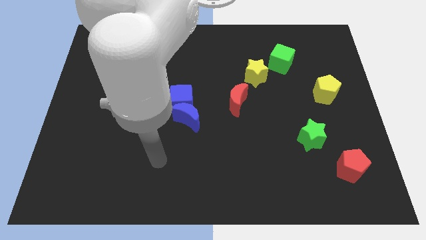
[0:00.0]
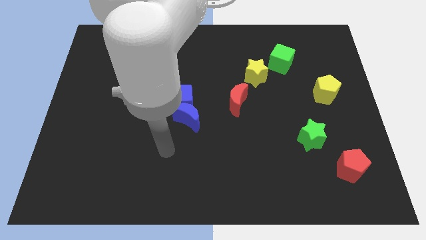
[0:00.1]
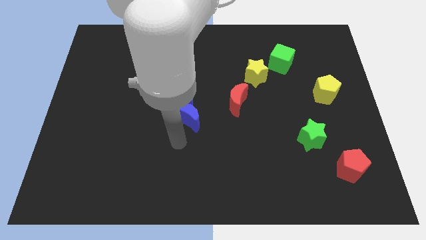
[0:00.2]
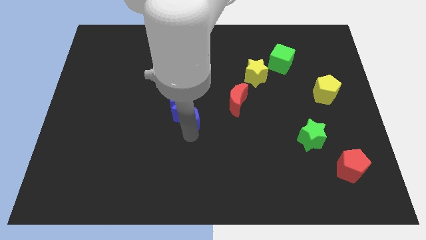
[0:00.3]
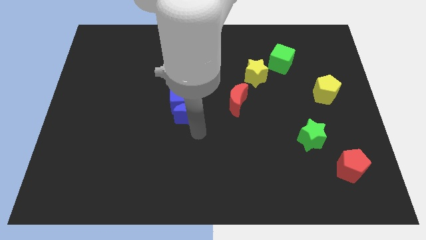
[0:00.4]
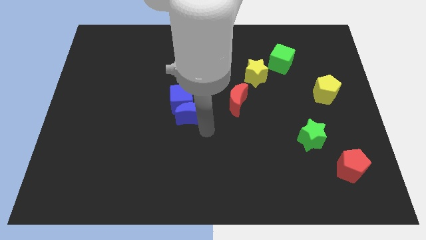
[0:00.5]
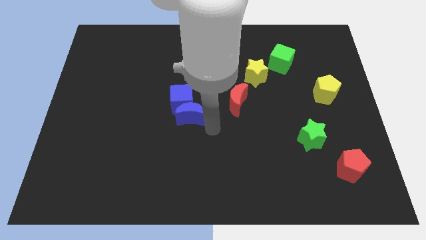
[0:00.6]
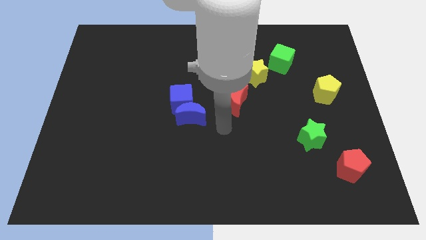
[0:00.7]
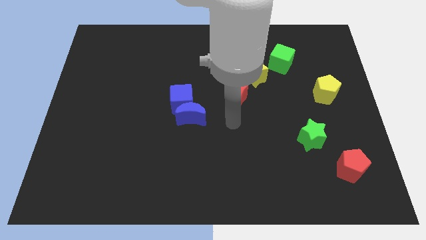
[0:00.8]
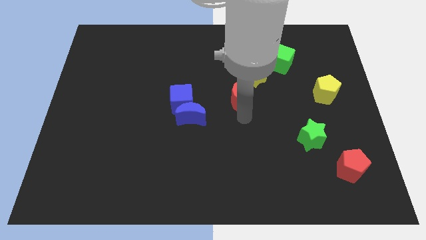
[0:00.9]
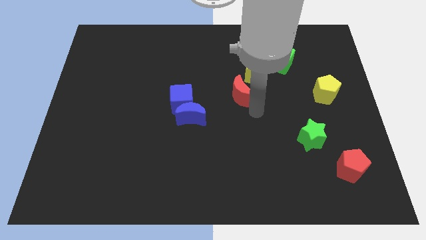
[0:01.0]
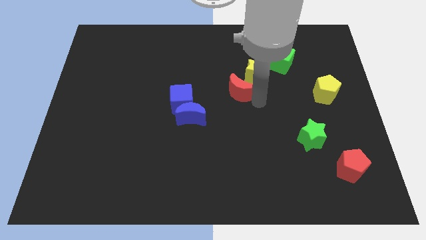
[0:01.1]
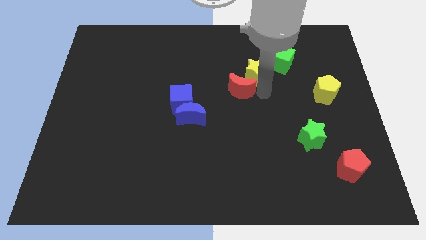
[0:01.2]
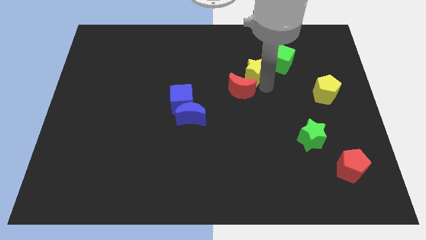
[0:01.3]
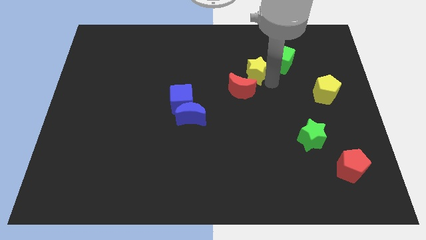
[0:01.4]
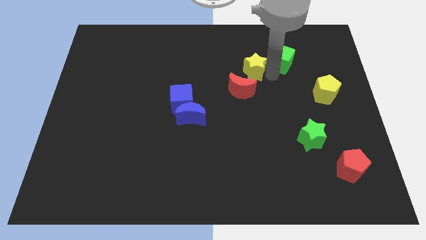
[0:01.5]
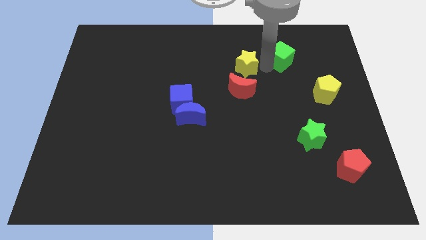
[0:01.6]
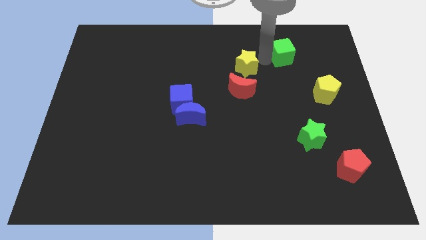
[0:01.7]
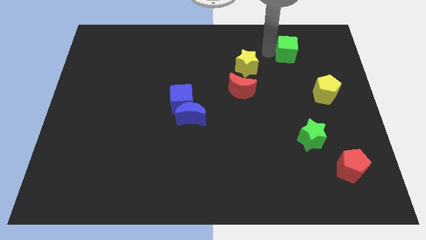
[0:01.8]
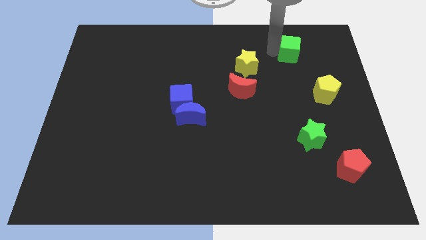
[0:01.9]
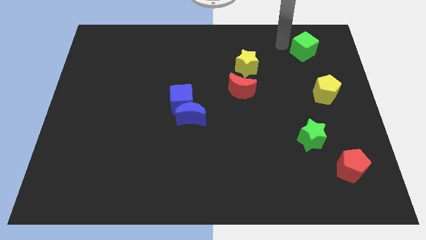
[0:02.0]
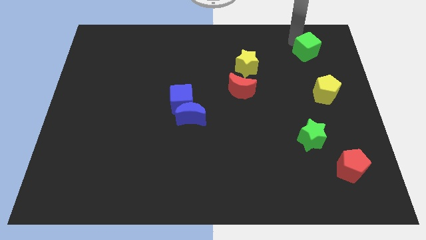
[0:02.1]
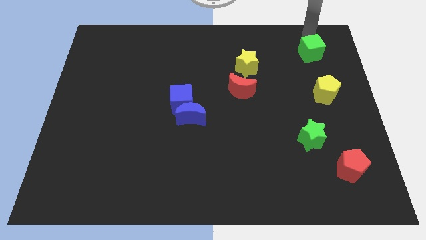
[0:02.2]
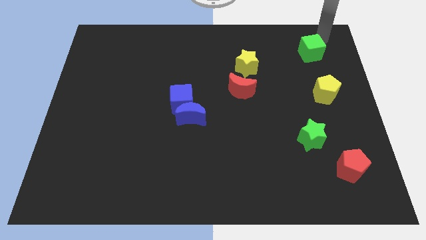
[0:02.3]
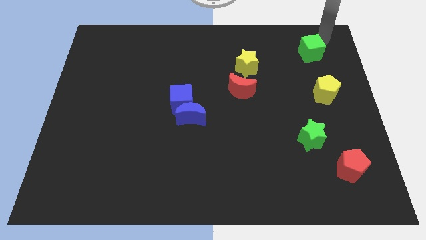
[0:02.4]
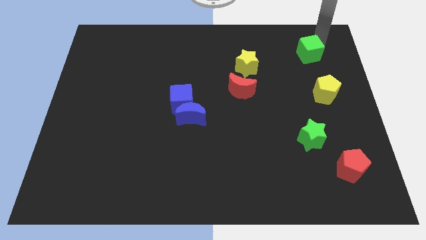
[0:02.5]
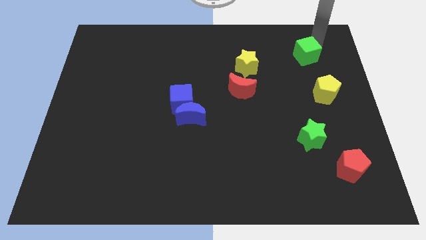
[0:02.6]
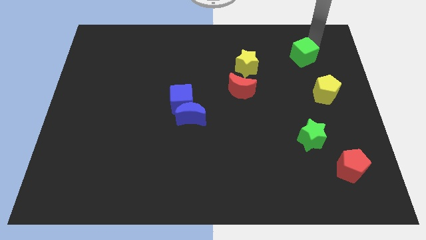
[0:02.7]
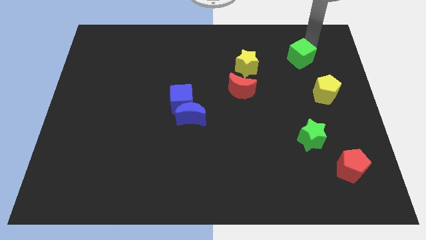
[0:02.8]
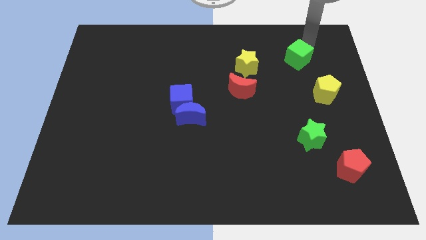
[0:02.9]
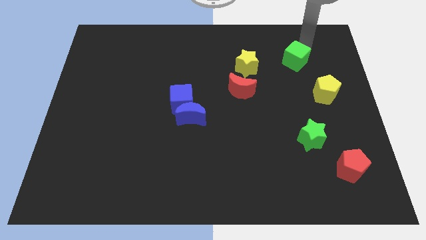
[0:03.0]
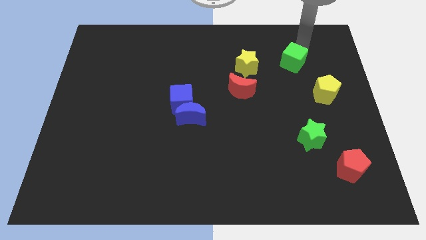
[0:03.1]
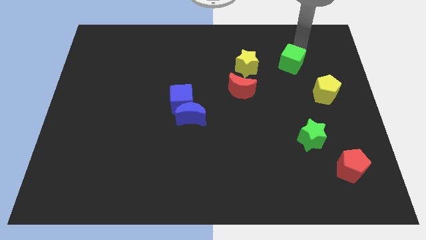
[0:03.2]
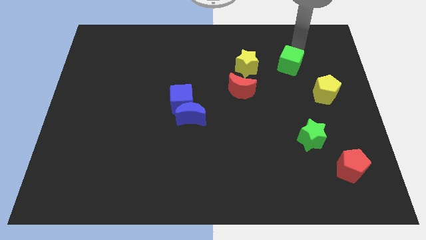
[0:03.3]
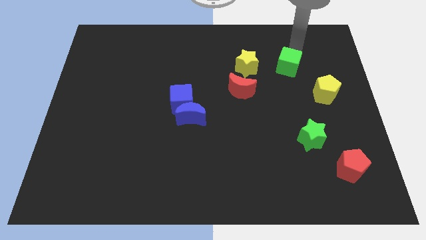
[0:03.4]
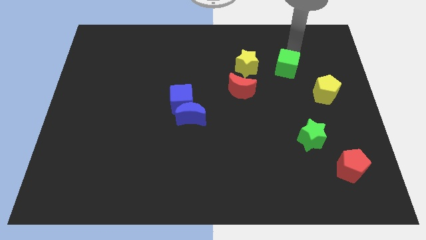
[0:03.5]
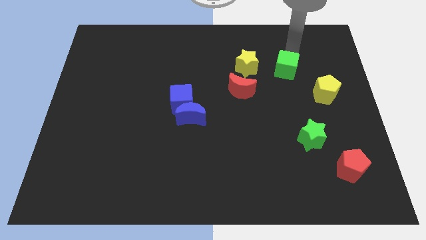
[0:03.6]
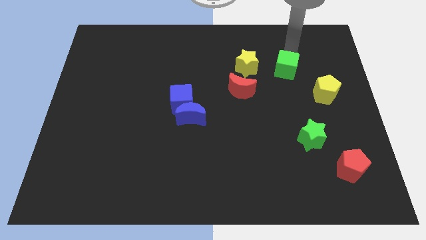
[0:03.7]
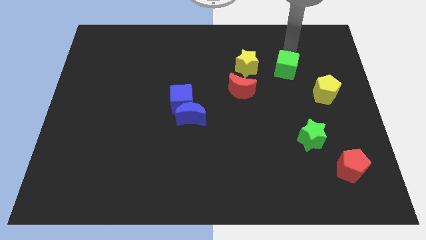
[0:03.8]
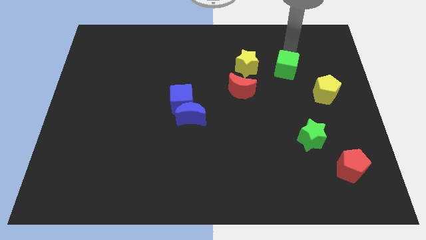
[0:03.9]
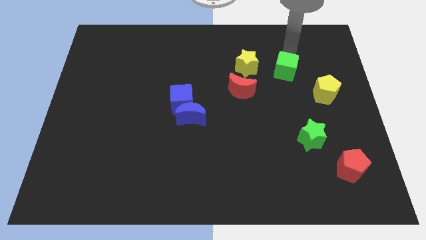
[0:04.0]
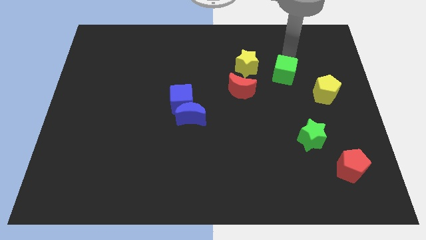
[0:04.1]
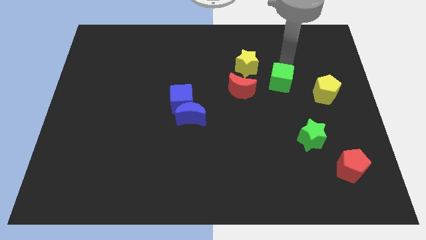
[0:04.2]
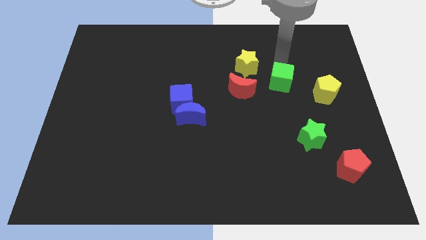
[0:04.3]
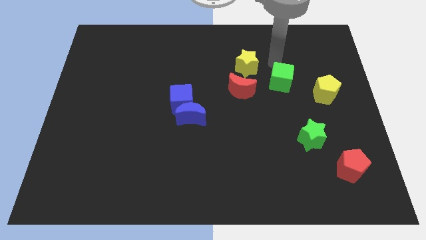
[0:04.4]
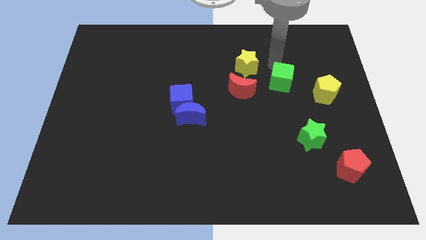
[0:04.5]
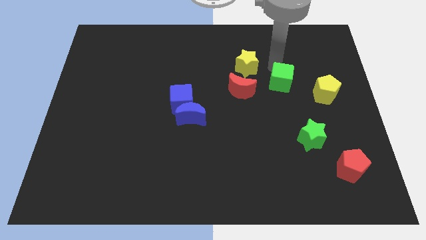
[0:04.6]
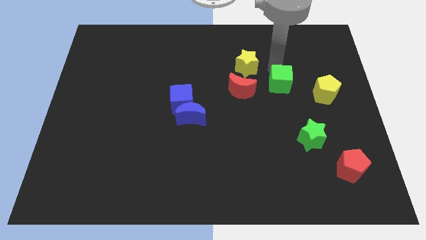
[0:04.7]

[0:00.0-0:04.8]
move the green cube somewhat down

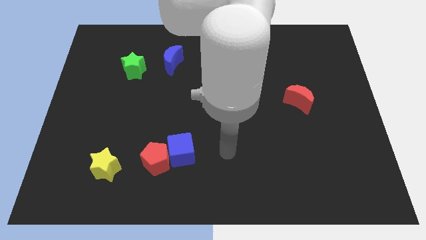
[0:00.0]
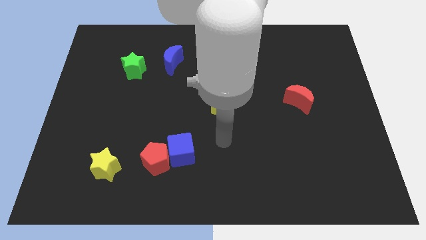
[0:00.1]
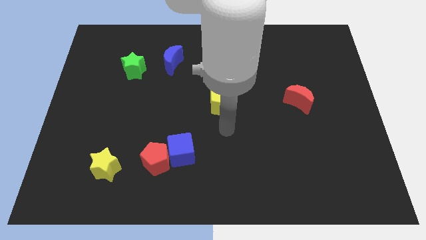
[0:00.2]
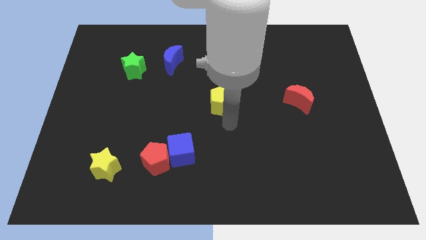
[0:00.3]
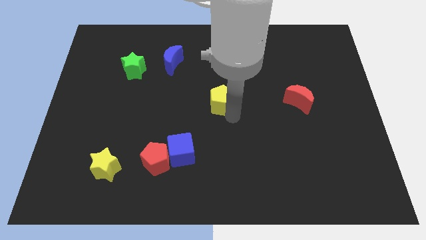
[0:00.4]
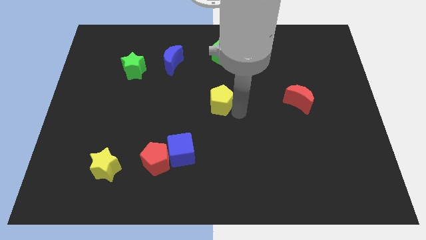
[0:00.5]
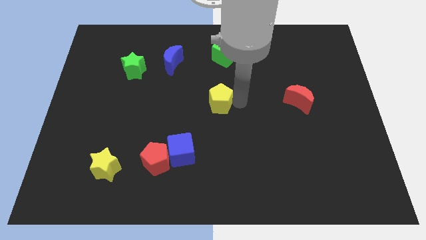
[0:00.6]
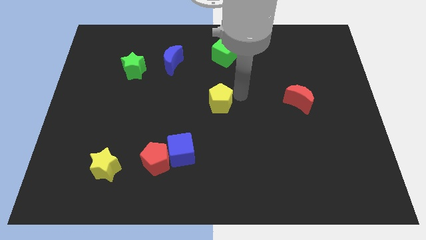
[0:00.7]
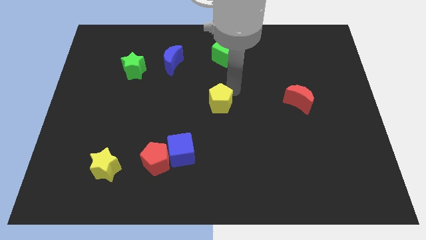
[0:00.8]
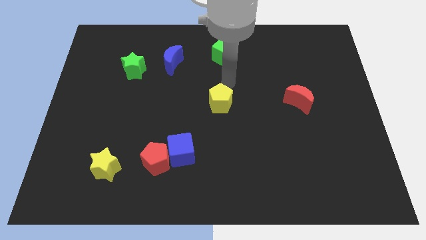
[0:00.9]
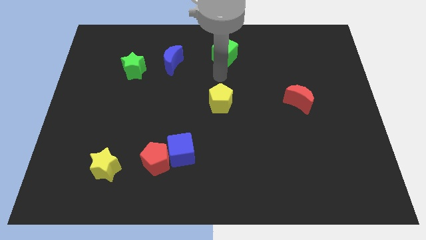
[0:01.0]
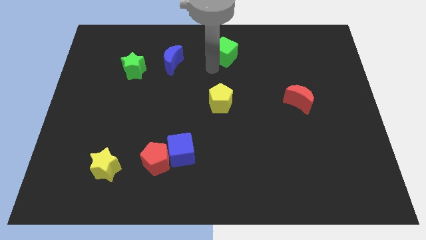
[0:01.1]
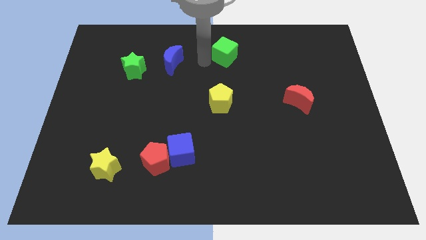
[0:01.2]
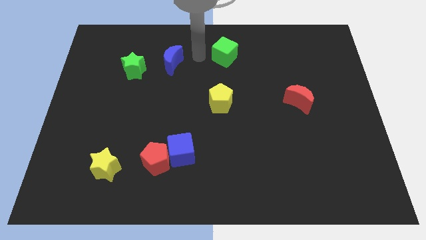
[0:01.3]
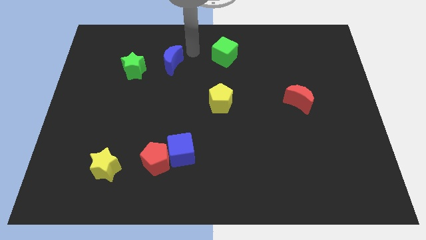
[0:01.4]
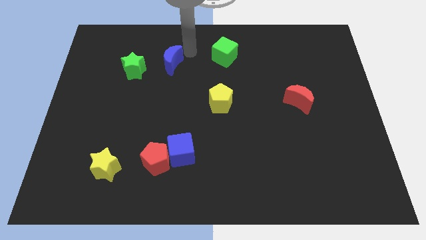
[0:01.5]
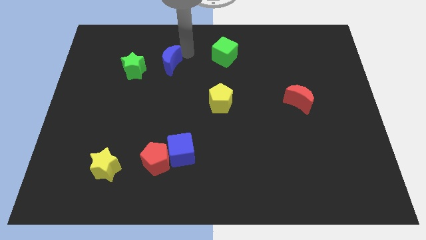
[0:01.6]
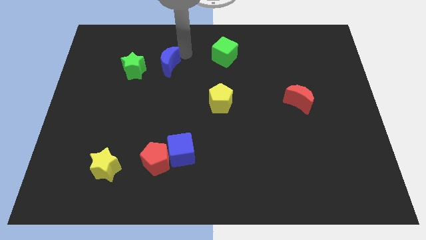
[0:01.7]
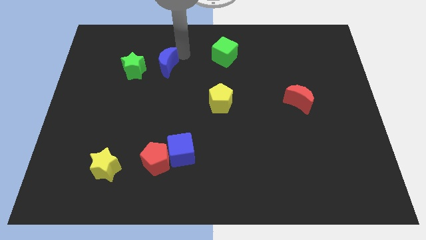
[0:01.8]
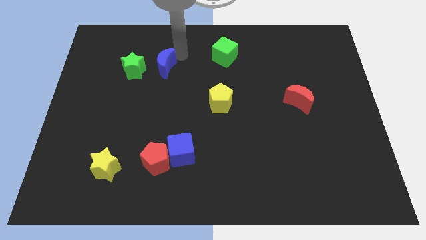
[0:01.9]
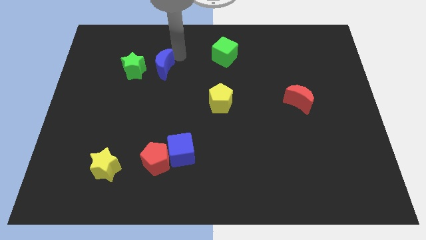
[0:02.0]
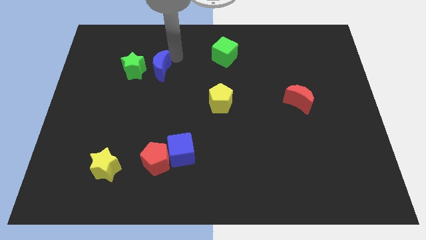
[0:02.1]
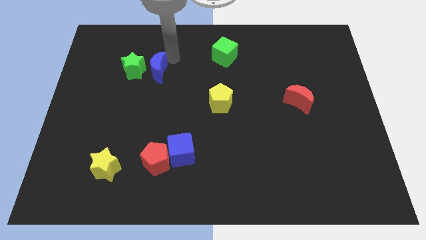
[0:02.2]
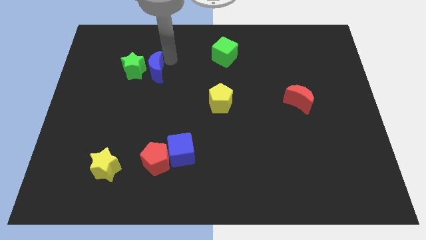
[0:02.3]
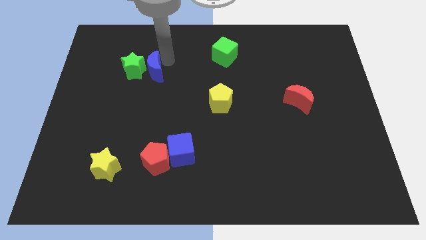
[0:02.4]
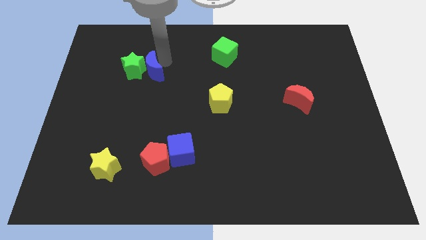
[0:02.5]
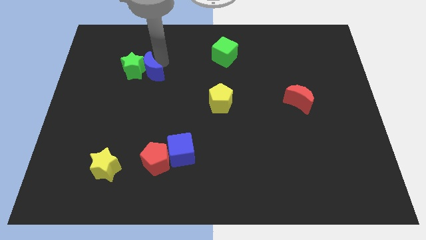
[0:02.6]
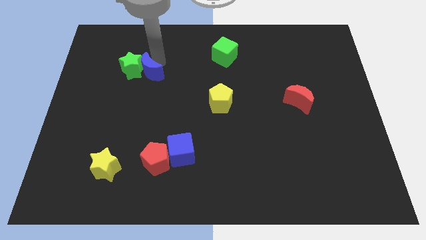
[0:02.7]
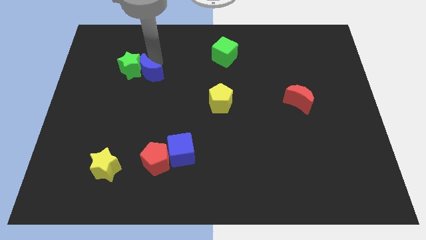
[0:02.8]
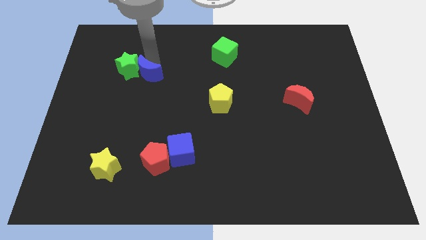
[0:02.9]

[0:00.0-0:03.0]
slightly move the blue moon diagonally downwards and left

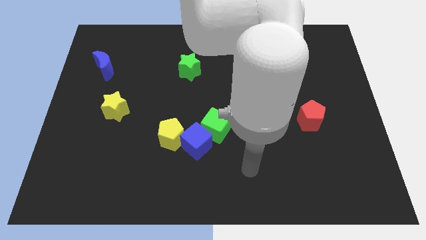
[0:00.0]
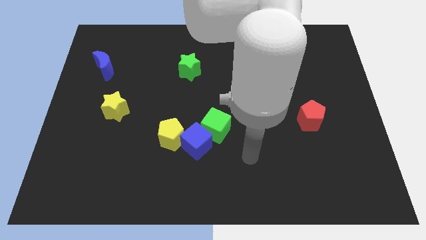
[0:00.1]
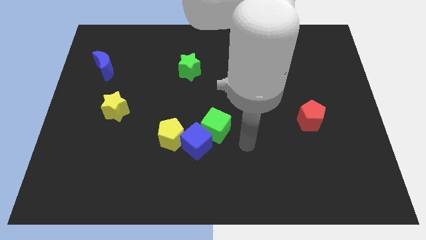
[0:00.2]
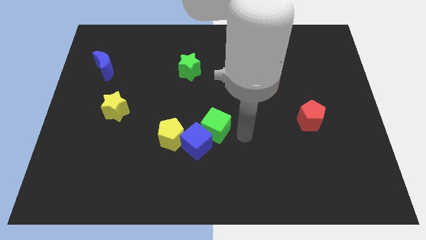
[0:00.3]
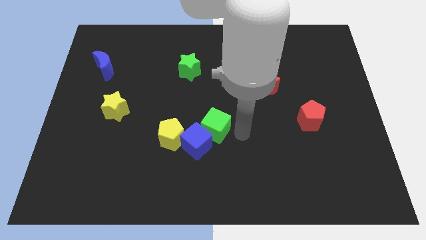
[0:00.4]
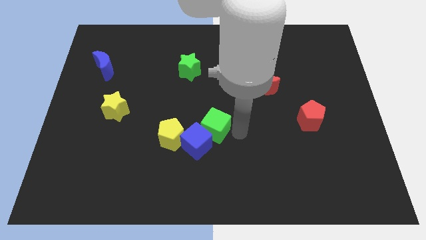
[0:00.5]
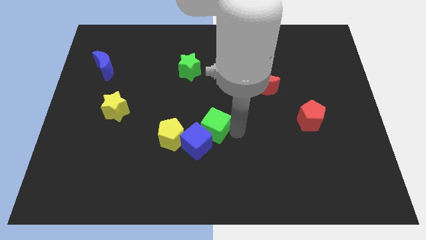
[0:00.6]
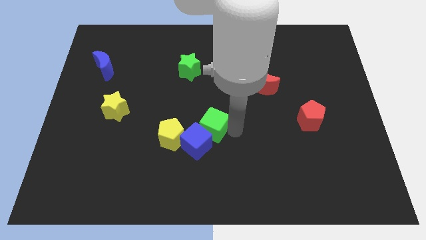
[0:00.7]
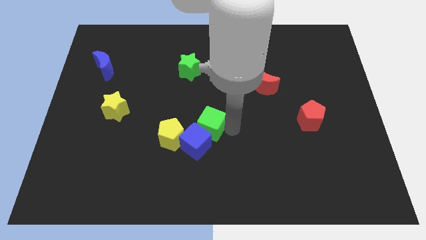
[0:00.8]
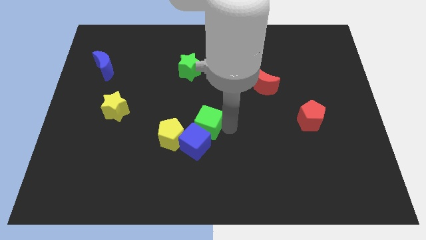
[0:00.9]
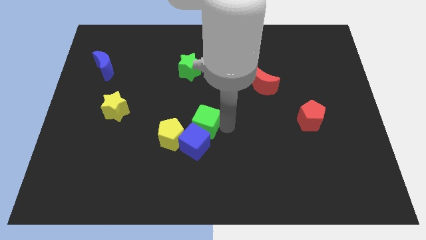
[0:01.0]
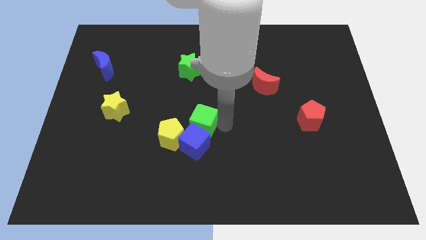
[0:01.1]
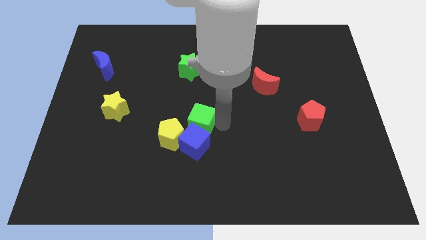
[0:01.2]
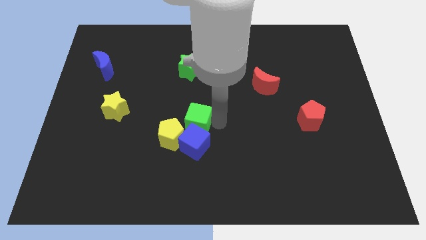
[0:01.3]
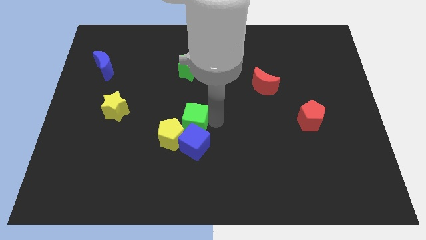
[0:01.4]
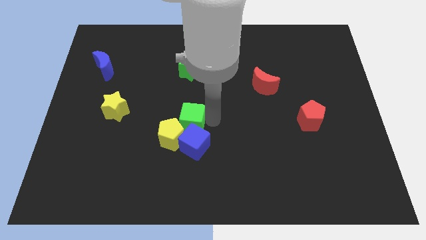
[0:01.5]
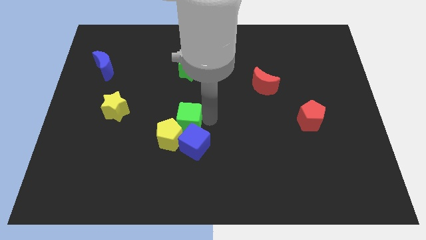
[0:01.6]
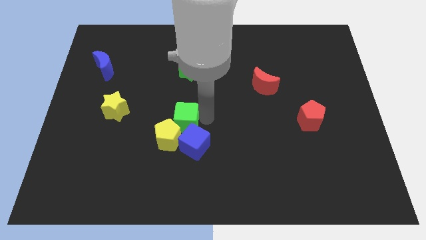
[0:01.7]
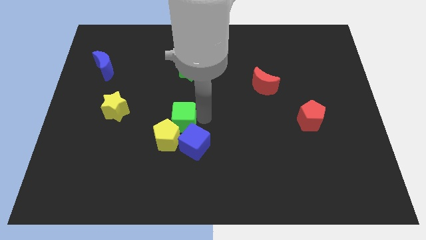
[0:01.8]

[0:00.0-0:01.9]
slightly slide the green cube left
